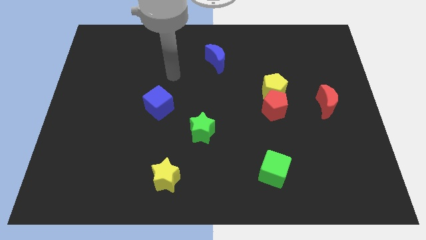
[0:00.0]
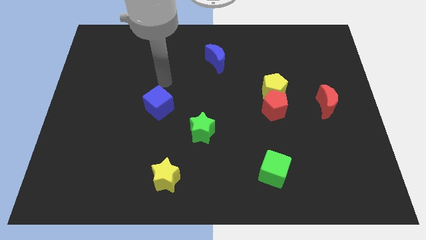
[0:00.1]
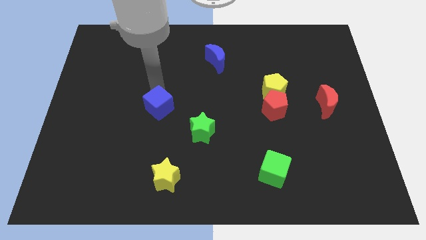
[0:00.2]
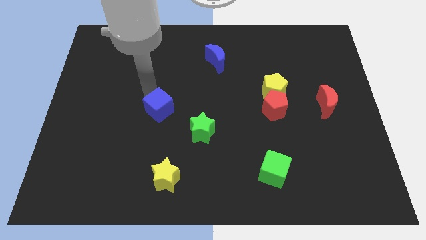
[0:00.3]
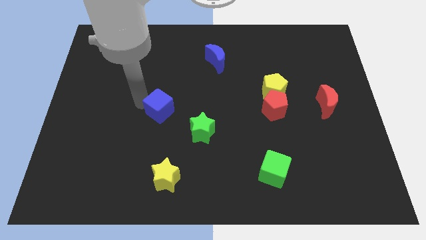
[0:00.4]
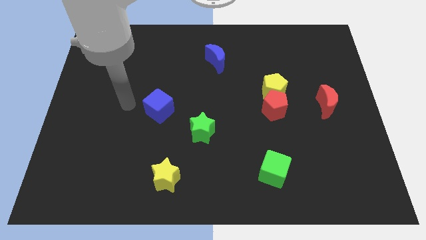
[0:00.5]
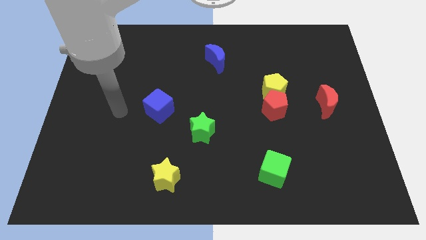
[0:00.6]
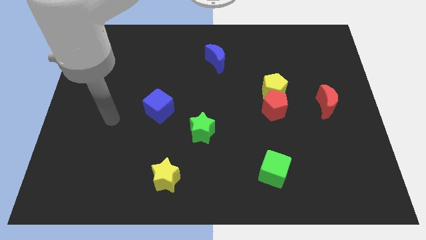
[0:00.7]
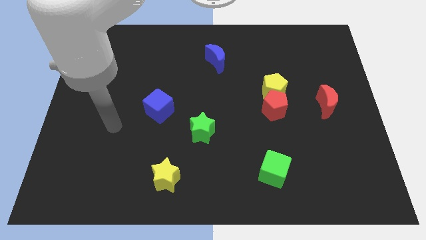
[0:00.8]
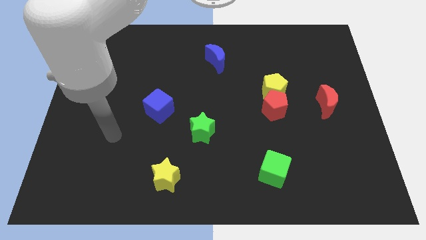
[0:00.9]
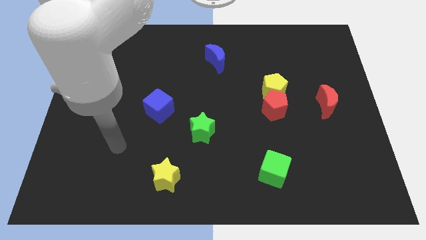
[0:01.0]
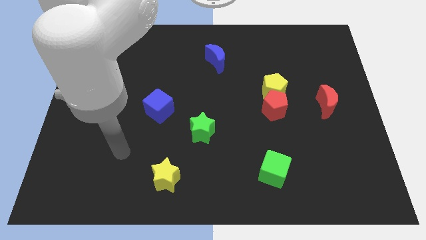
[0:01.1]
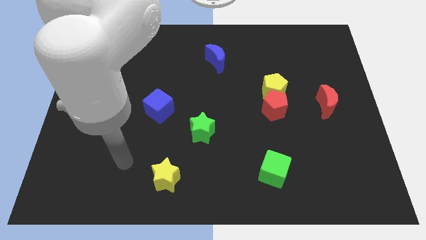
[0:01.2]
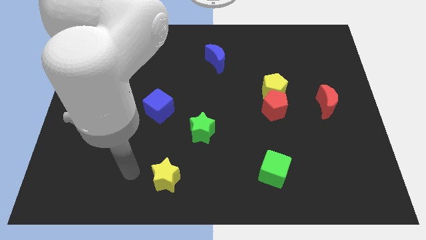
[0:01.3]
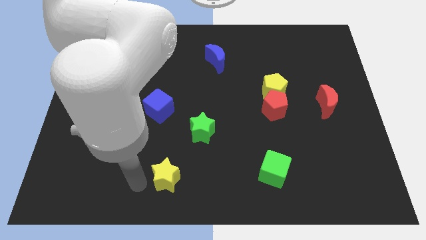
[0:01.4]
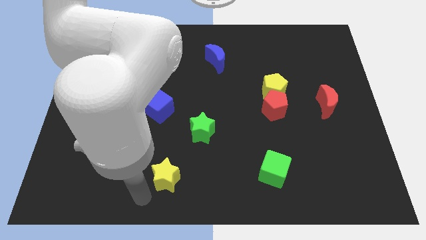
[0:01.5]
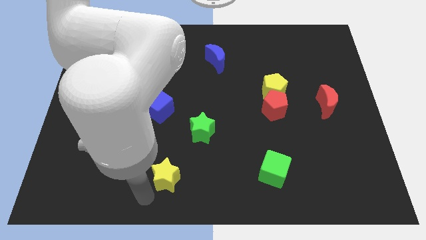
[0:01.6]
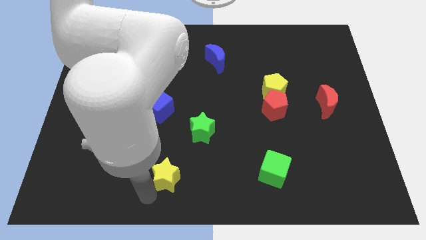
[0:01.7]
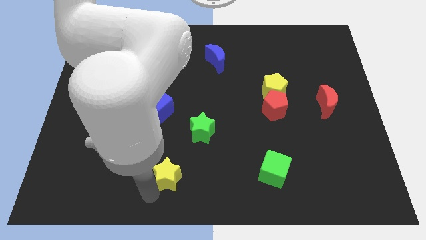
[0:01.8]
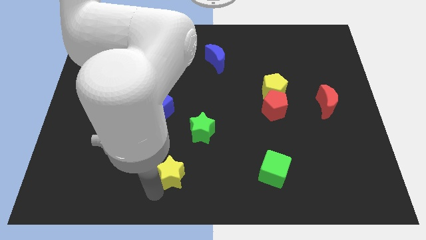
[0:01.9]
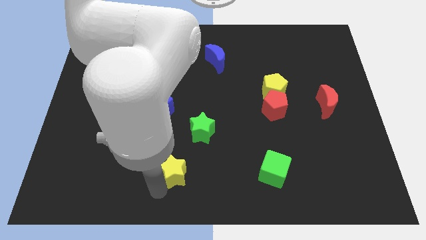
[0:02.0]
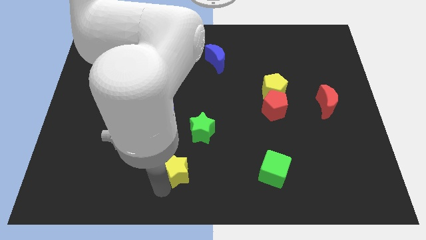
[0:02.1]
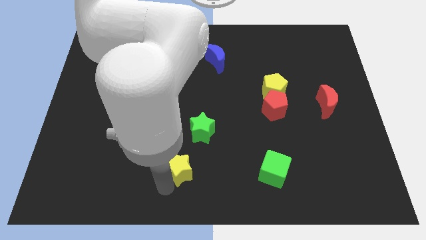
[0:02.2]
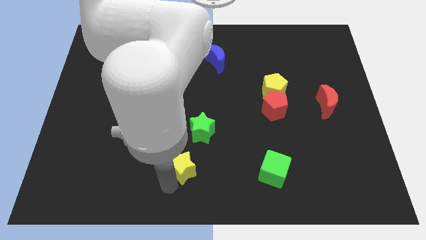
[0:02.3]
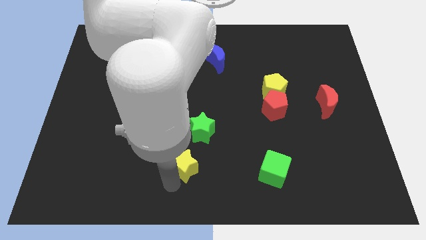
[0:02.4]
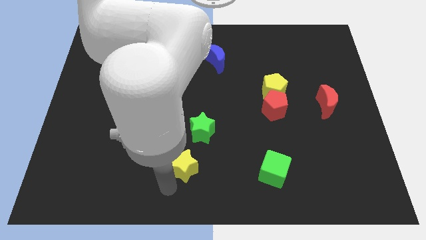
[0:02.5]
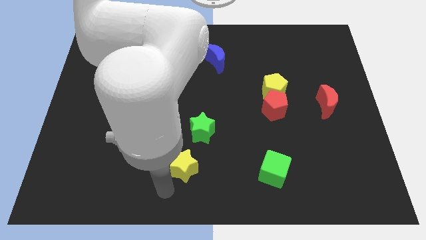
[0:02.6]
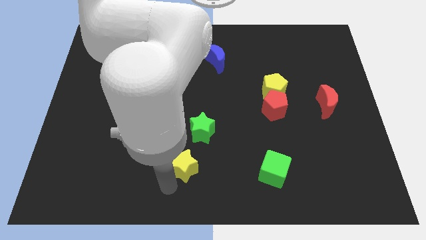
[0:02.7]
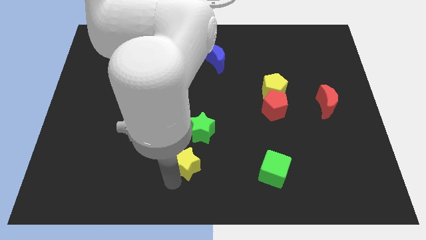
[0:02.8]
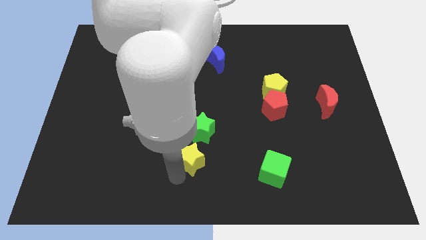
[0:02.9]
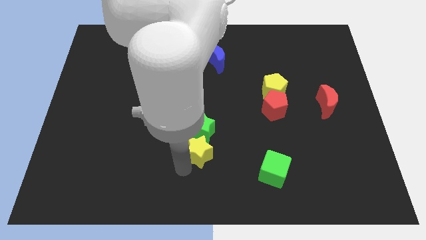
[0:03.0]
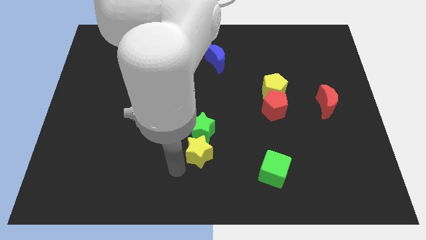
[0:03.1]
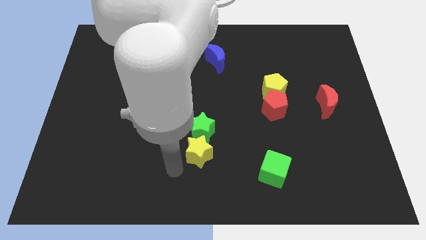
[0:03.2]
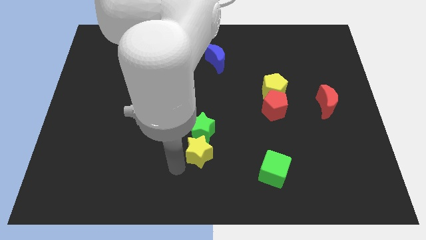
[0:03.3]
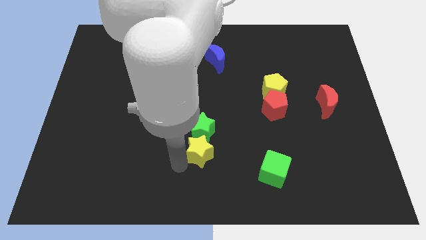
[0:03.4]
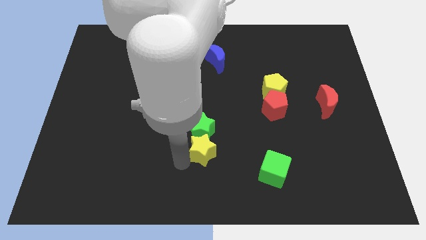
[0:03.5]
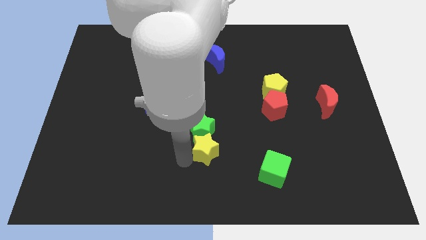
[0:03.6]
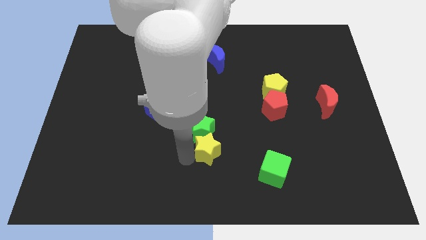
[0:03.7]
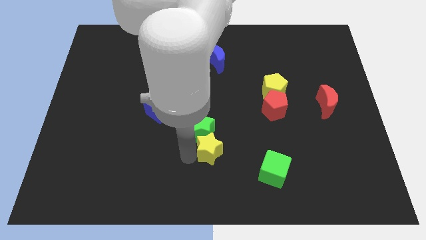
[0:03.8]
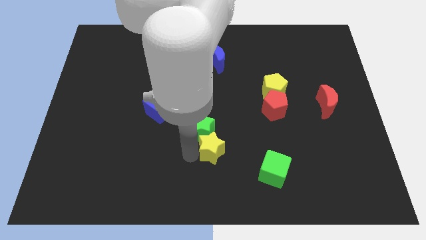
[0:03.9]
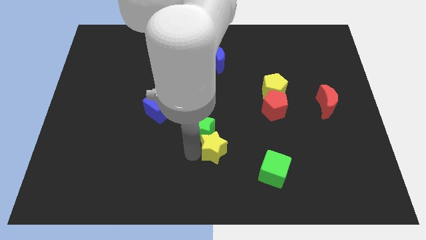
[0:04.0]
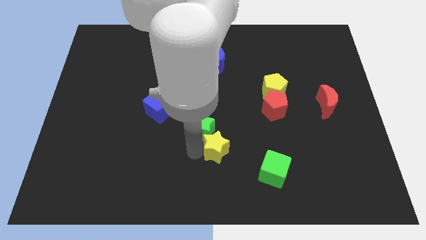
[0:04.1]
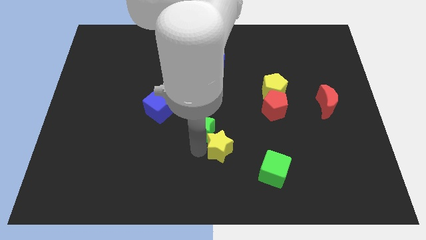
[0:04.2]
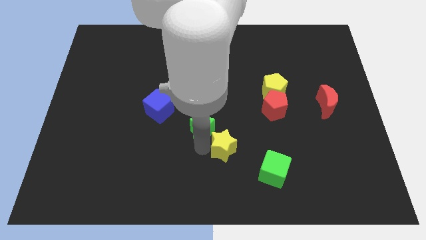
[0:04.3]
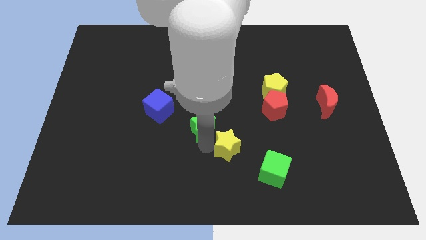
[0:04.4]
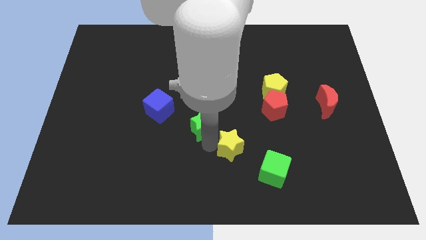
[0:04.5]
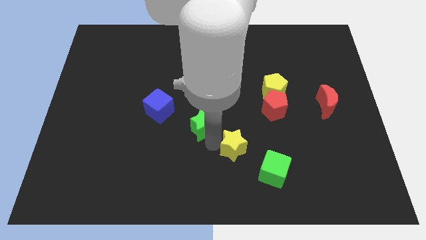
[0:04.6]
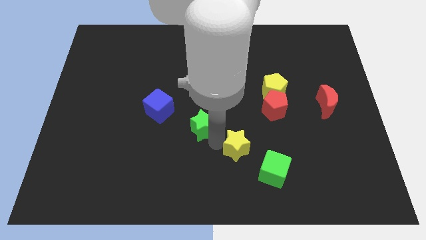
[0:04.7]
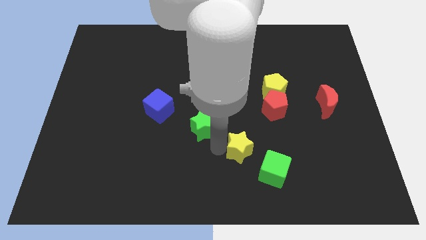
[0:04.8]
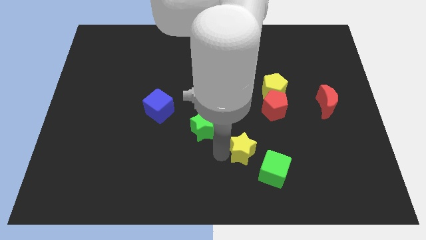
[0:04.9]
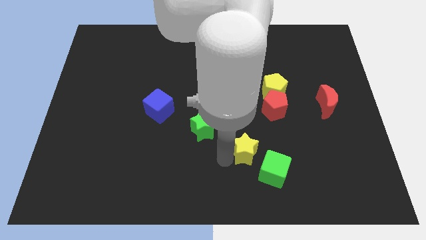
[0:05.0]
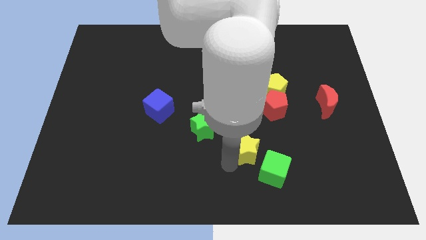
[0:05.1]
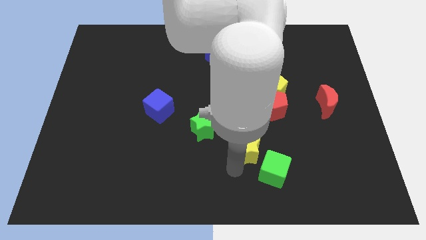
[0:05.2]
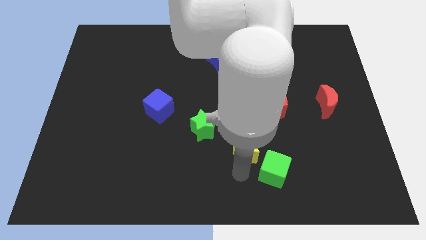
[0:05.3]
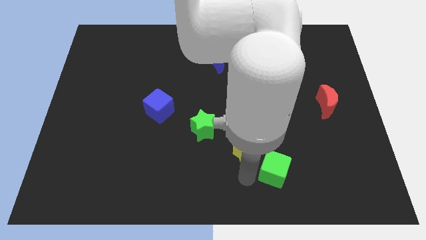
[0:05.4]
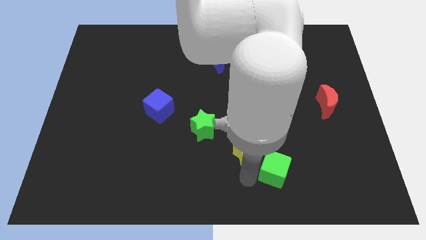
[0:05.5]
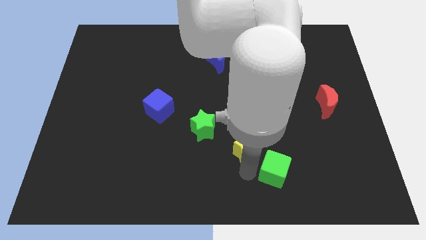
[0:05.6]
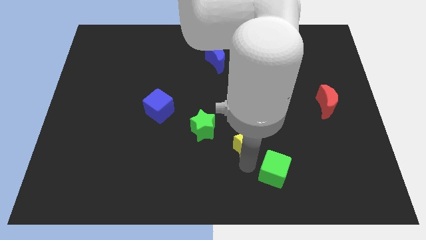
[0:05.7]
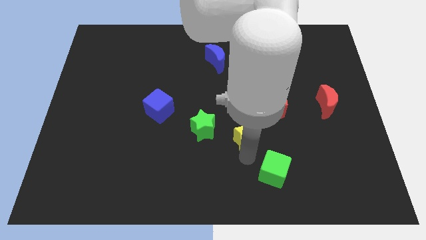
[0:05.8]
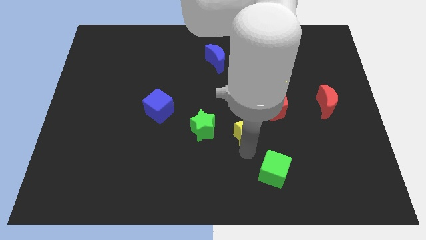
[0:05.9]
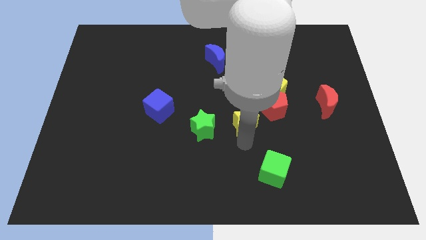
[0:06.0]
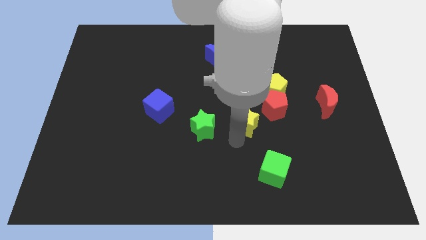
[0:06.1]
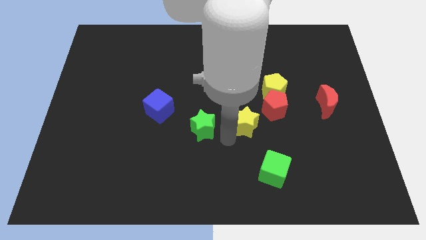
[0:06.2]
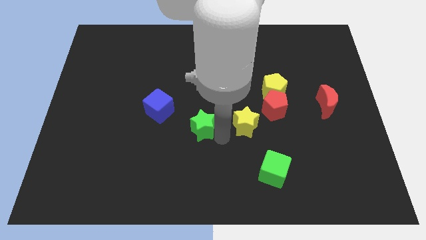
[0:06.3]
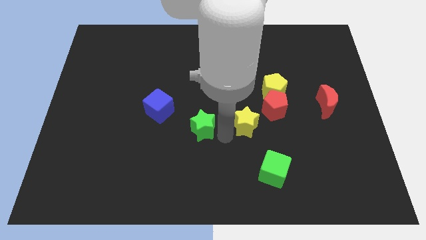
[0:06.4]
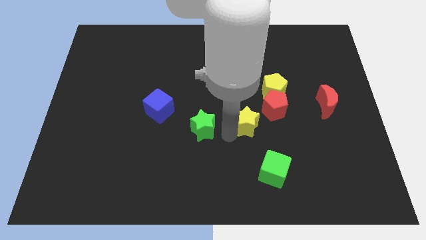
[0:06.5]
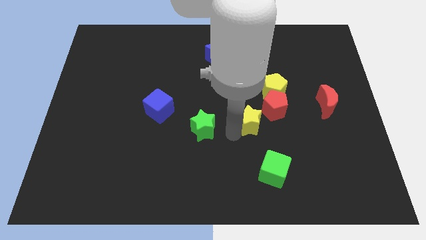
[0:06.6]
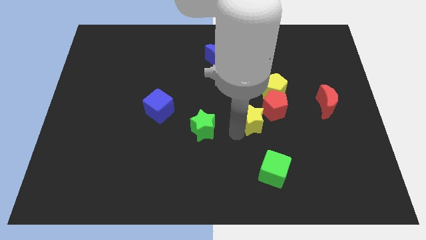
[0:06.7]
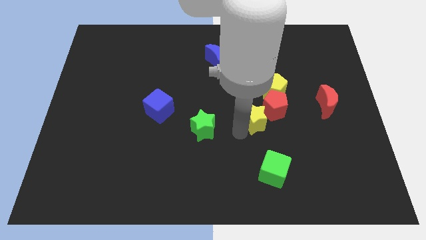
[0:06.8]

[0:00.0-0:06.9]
put the yellow star close to the red pentagon

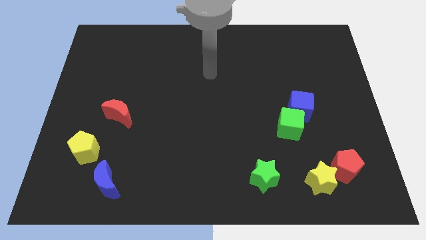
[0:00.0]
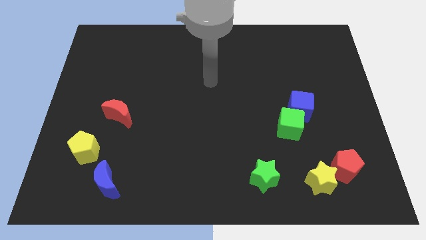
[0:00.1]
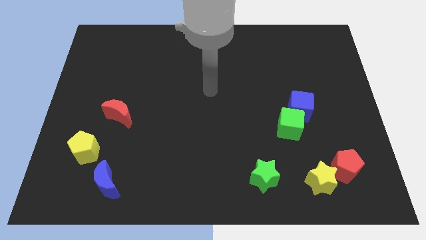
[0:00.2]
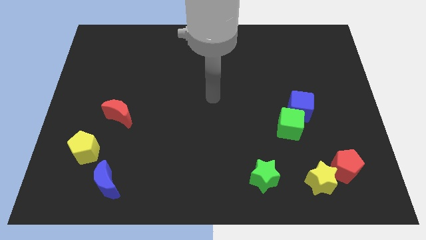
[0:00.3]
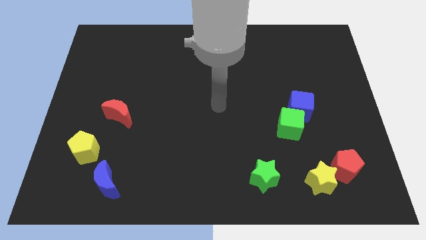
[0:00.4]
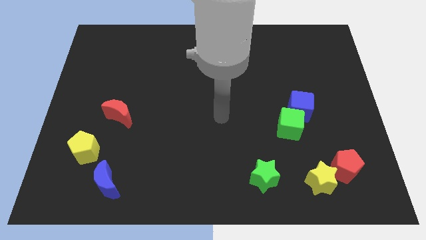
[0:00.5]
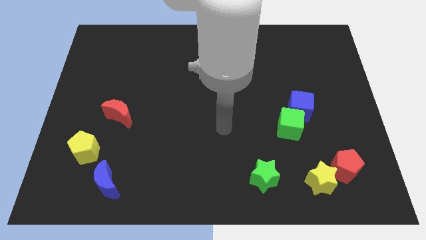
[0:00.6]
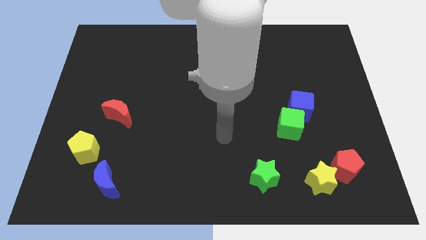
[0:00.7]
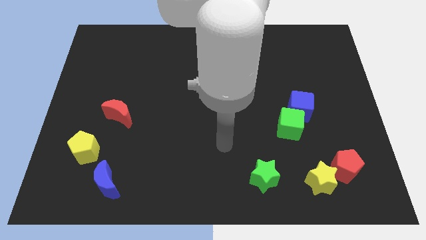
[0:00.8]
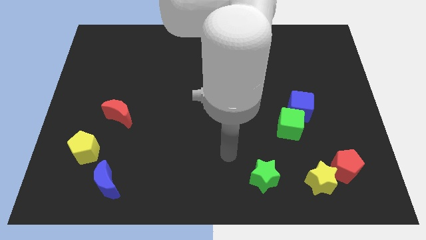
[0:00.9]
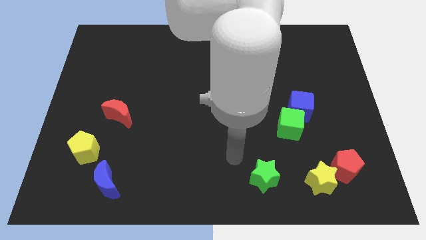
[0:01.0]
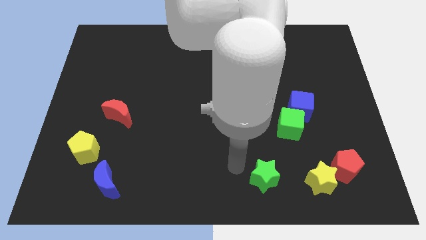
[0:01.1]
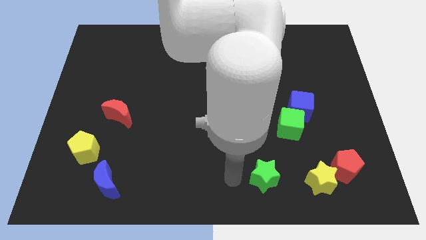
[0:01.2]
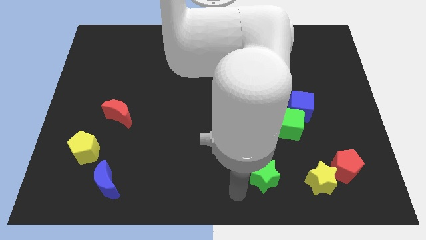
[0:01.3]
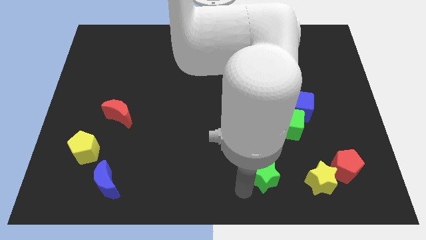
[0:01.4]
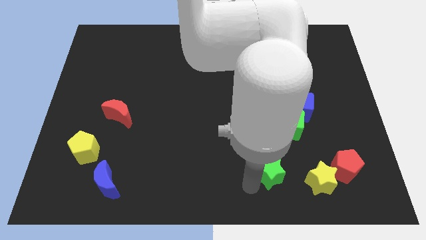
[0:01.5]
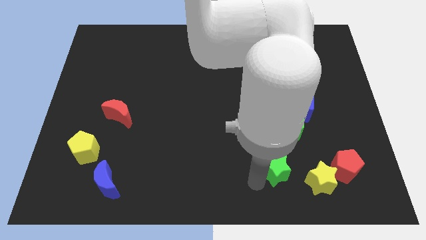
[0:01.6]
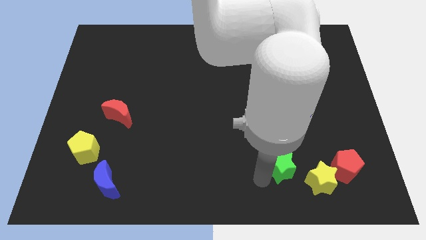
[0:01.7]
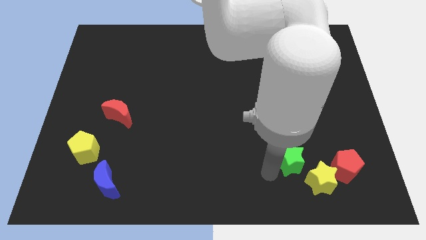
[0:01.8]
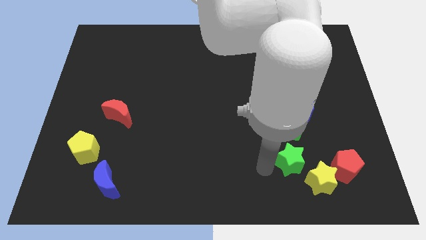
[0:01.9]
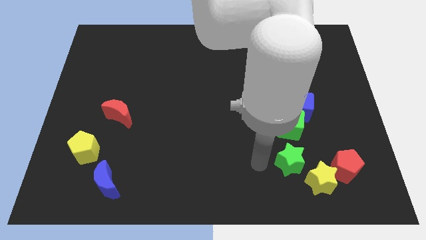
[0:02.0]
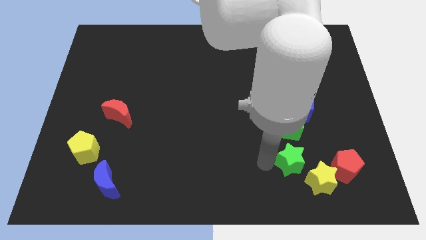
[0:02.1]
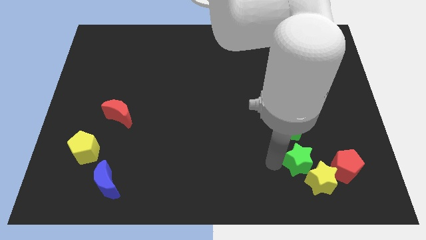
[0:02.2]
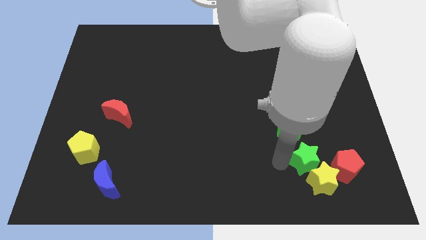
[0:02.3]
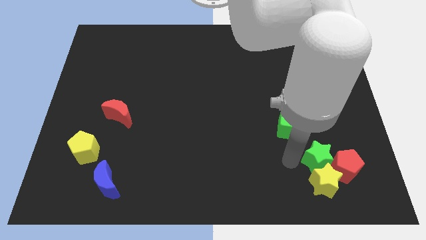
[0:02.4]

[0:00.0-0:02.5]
put the green star towards the red pentagon
